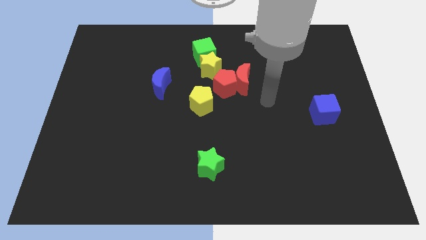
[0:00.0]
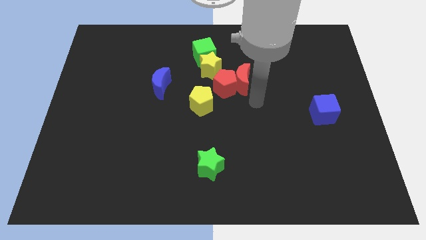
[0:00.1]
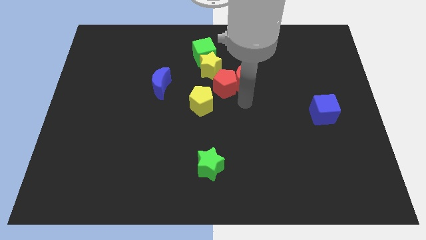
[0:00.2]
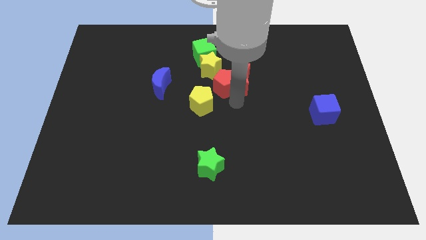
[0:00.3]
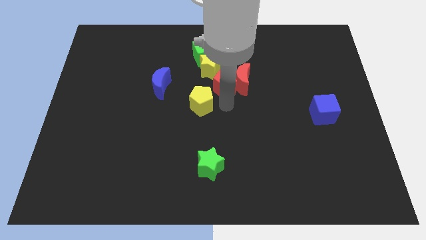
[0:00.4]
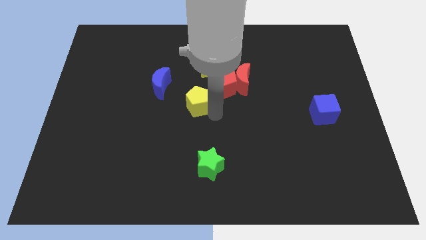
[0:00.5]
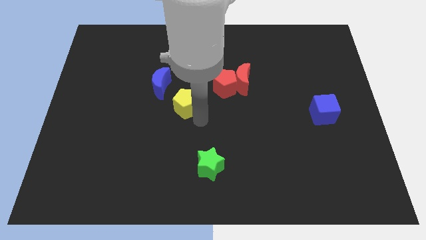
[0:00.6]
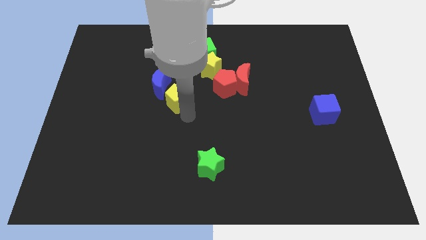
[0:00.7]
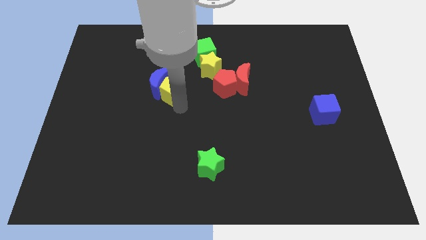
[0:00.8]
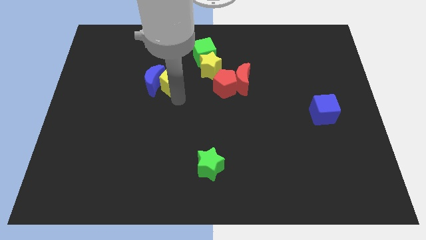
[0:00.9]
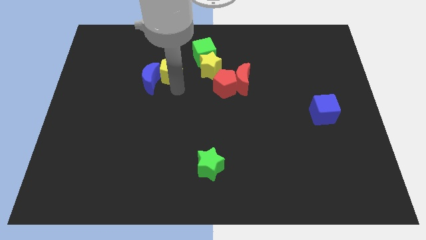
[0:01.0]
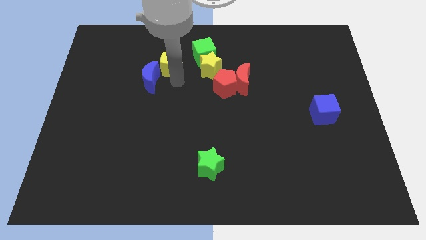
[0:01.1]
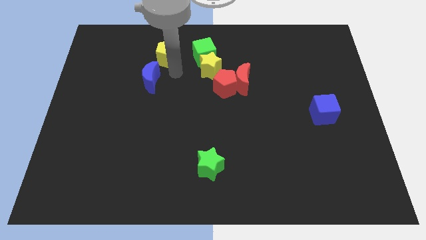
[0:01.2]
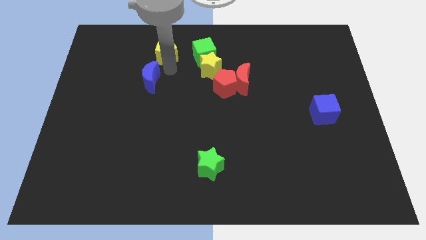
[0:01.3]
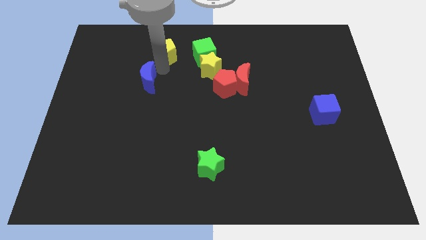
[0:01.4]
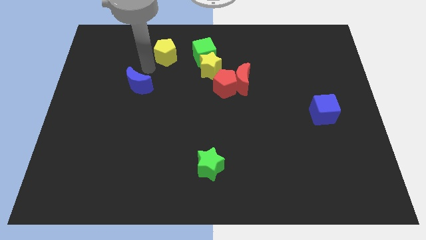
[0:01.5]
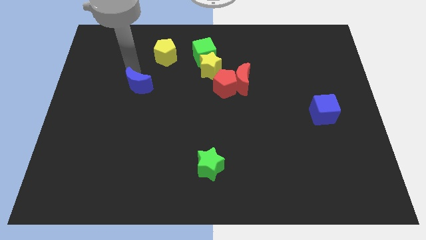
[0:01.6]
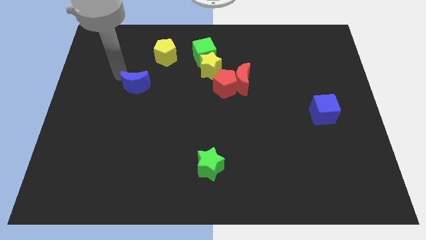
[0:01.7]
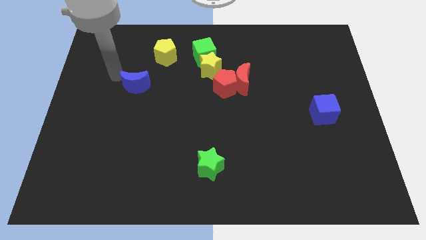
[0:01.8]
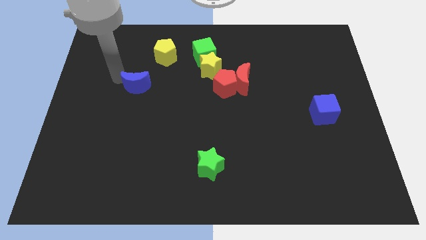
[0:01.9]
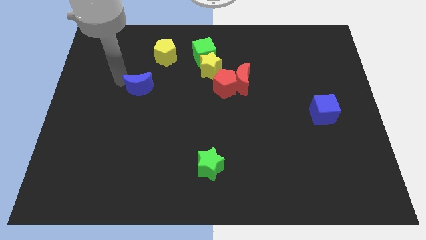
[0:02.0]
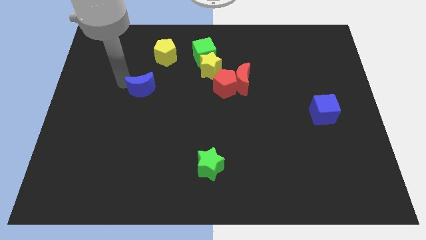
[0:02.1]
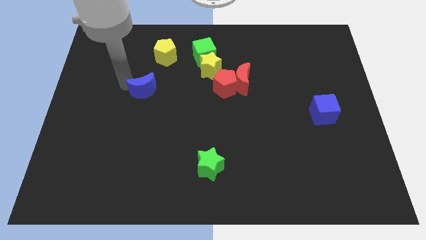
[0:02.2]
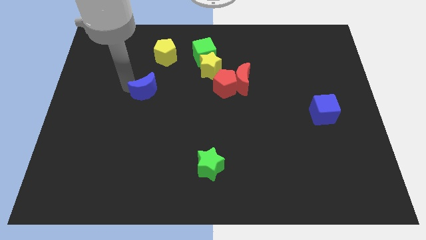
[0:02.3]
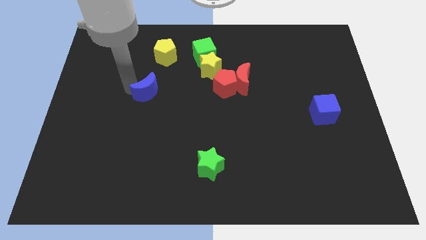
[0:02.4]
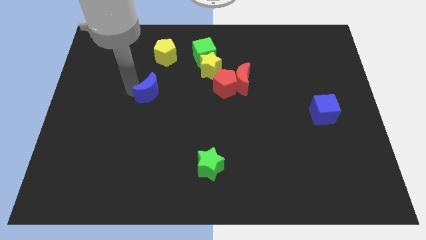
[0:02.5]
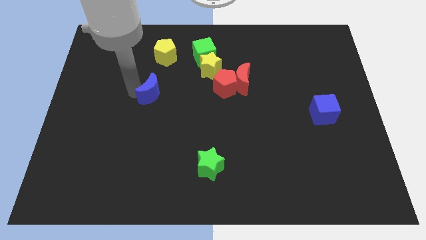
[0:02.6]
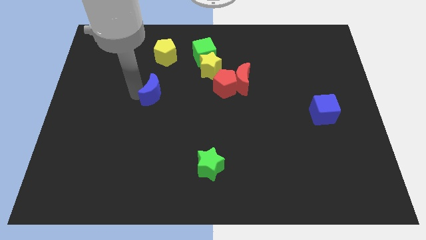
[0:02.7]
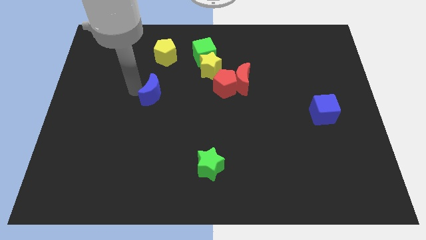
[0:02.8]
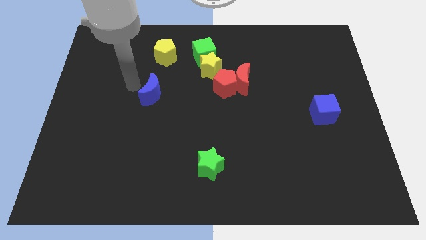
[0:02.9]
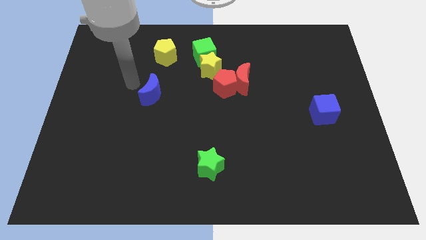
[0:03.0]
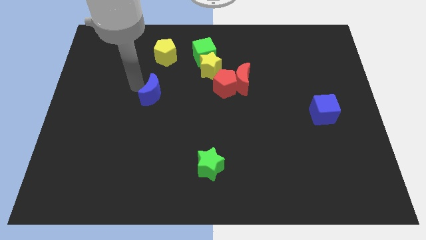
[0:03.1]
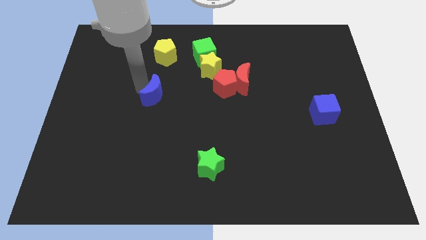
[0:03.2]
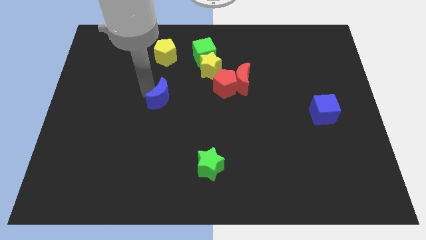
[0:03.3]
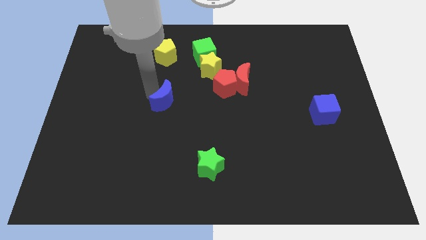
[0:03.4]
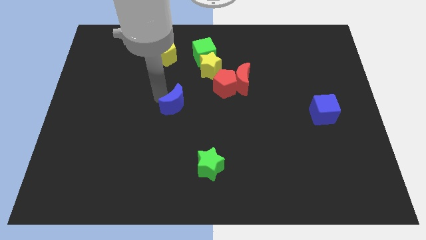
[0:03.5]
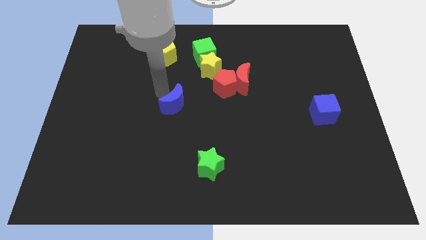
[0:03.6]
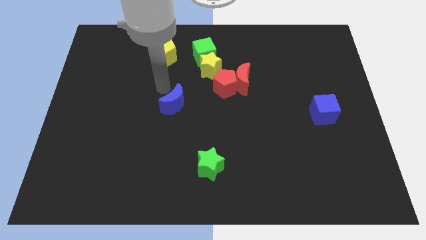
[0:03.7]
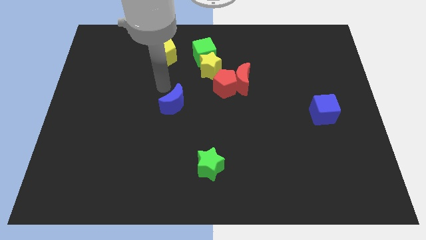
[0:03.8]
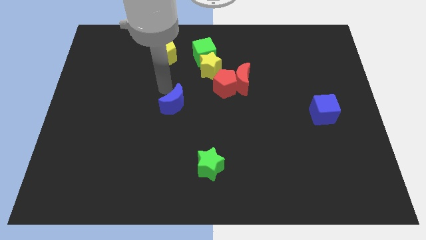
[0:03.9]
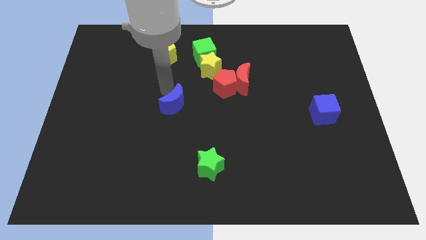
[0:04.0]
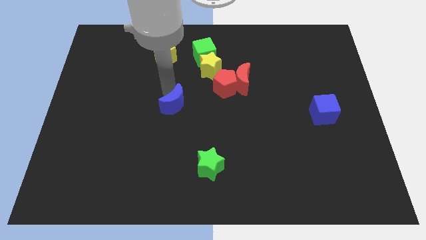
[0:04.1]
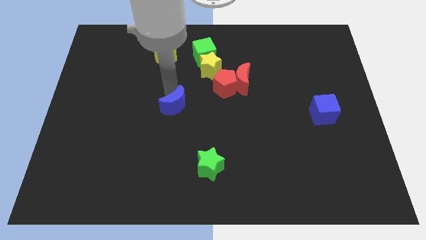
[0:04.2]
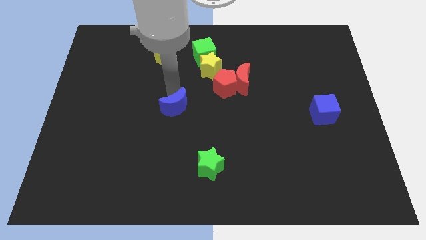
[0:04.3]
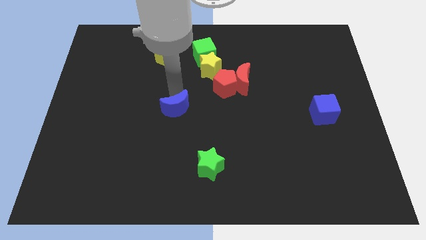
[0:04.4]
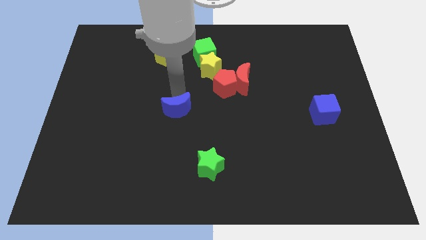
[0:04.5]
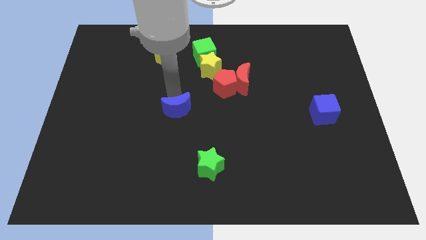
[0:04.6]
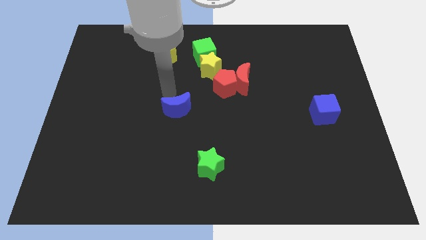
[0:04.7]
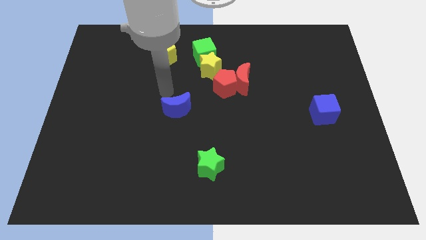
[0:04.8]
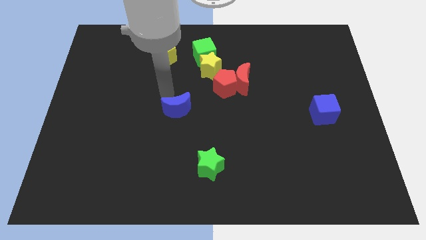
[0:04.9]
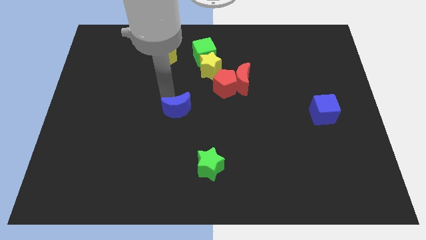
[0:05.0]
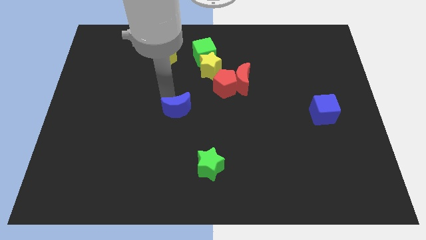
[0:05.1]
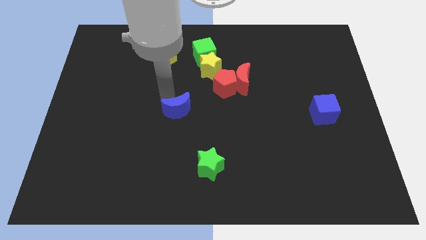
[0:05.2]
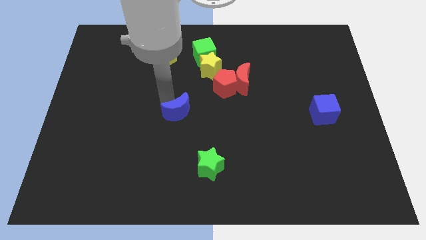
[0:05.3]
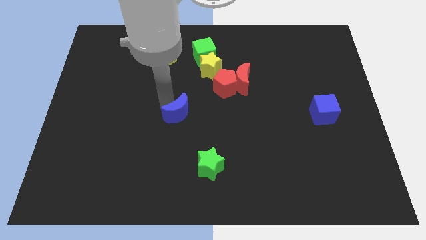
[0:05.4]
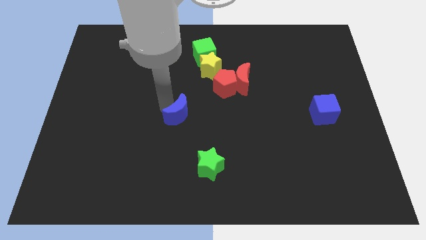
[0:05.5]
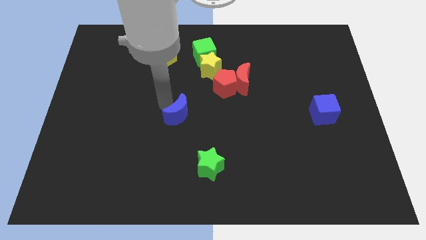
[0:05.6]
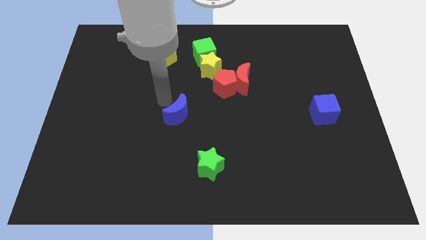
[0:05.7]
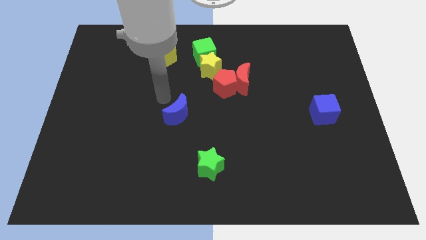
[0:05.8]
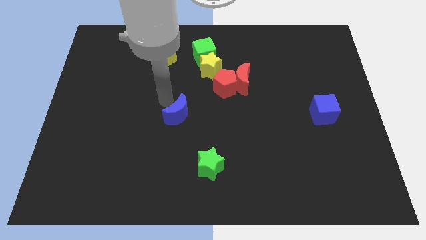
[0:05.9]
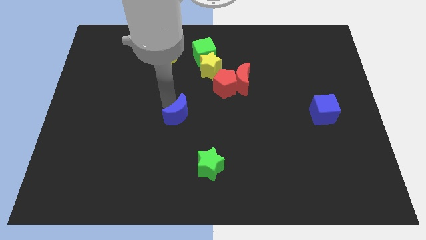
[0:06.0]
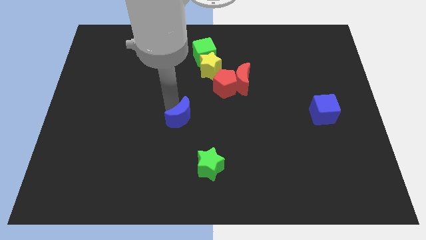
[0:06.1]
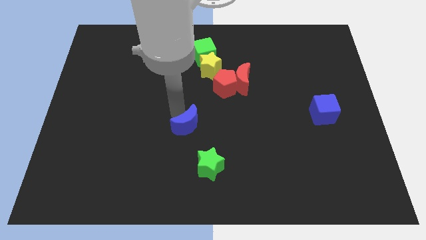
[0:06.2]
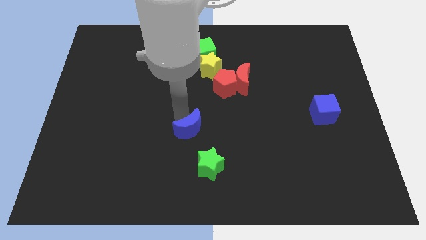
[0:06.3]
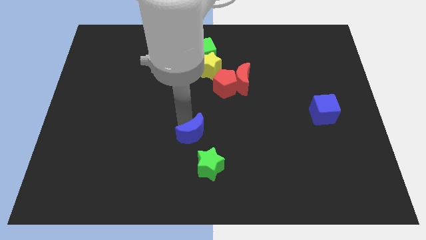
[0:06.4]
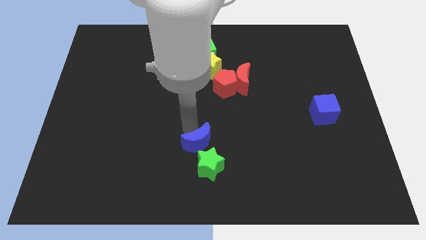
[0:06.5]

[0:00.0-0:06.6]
slide the blue moon to the green star

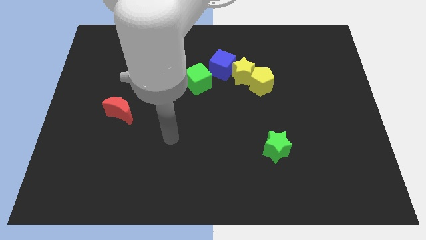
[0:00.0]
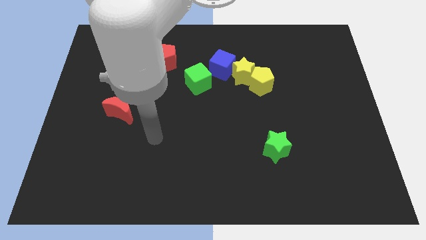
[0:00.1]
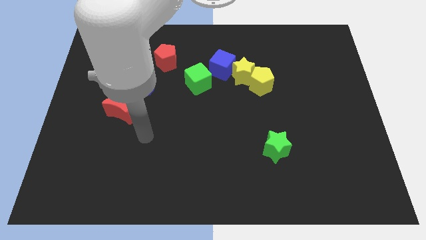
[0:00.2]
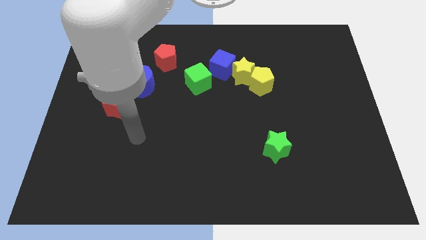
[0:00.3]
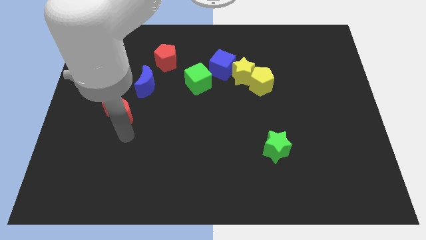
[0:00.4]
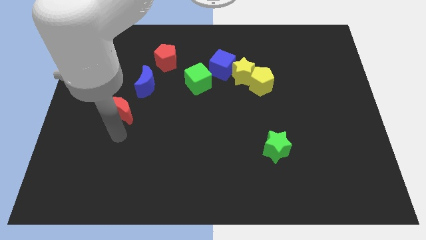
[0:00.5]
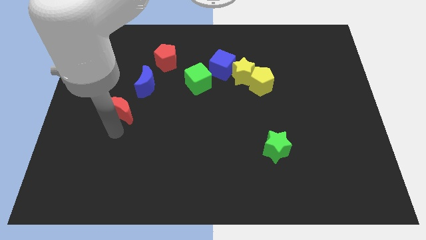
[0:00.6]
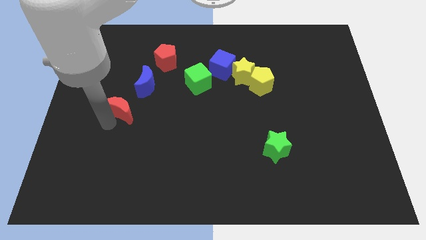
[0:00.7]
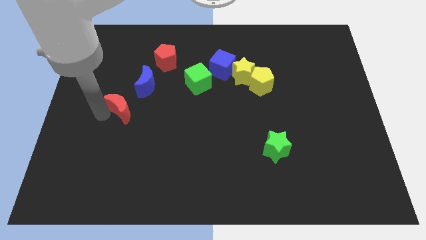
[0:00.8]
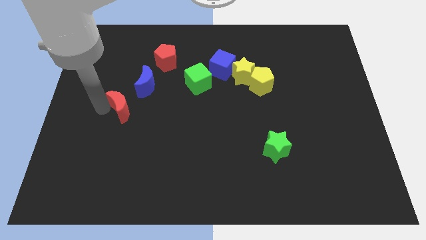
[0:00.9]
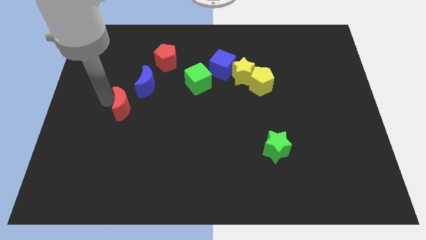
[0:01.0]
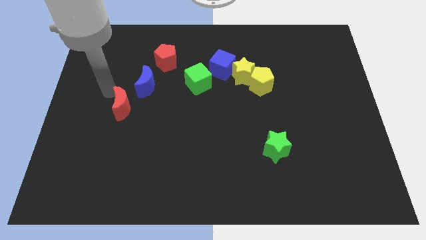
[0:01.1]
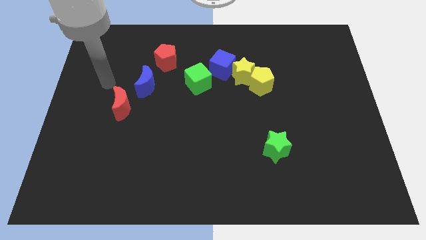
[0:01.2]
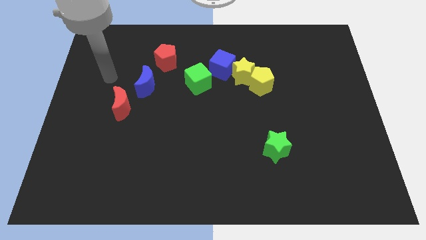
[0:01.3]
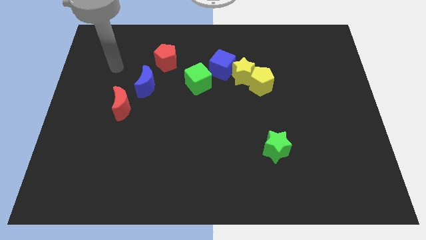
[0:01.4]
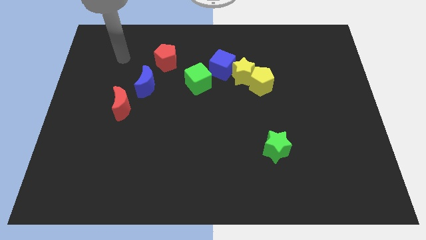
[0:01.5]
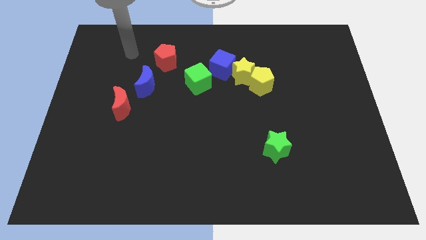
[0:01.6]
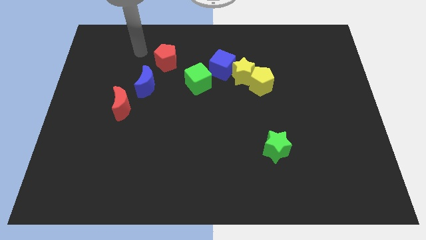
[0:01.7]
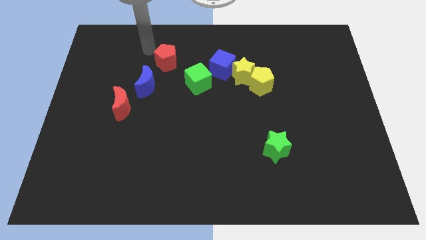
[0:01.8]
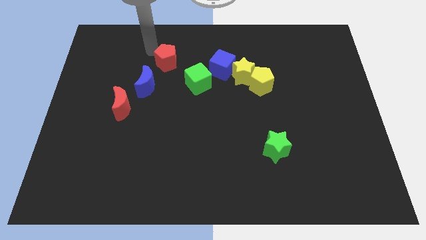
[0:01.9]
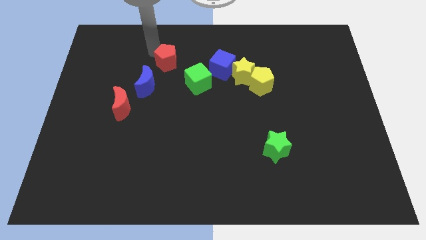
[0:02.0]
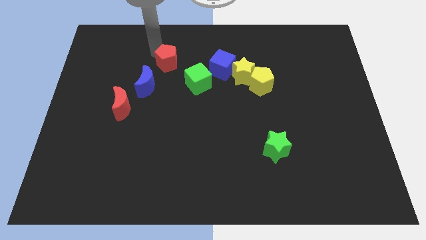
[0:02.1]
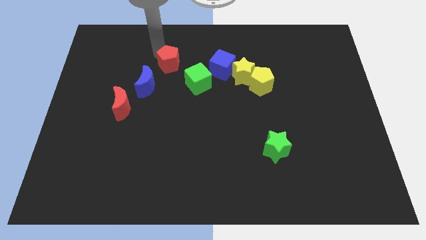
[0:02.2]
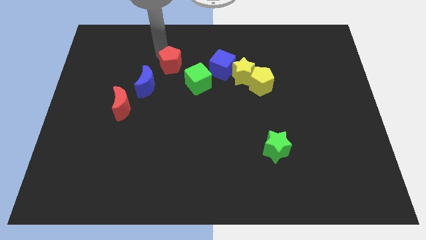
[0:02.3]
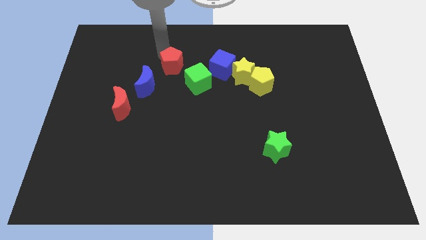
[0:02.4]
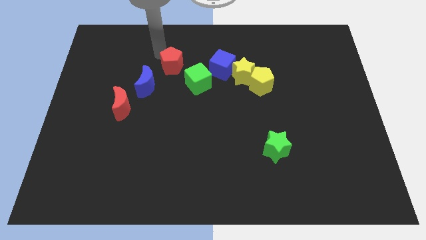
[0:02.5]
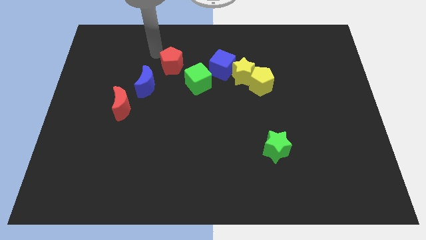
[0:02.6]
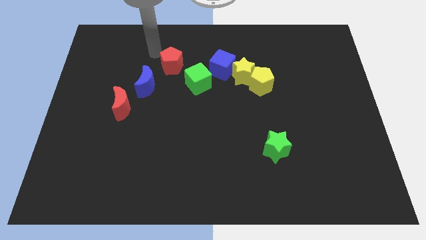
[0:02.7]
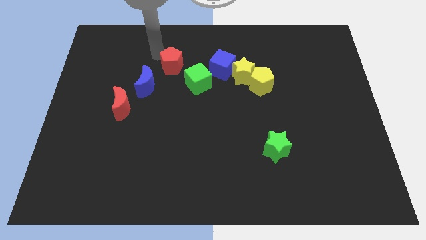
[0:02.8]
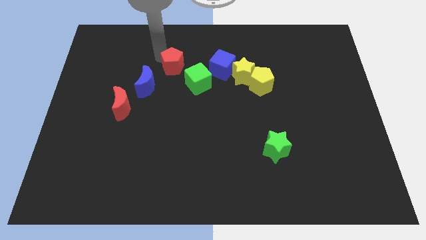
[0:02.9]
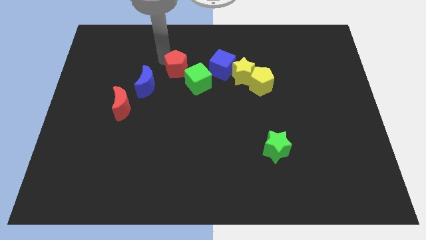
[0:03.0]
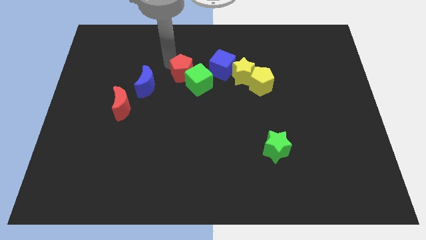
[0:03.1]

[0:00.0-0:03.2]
move the red pentagon to the green cube
